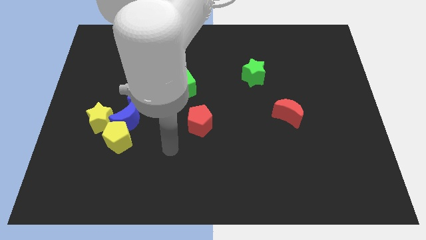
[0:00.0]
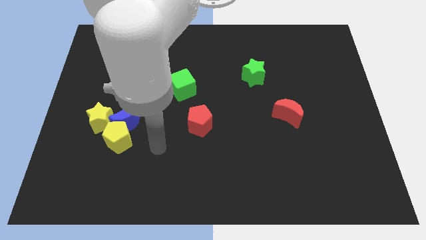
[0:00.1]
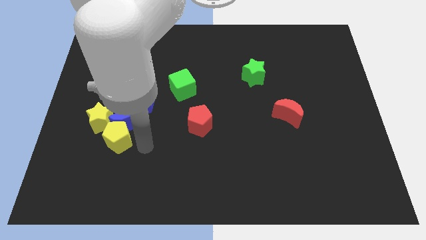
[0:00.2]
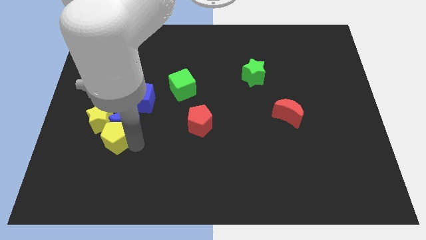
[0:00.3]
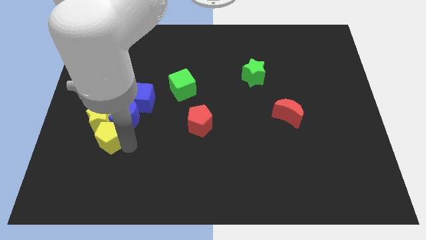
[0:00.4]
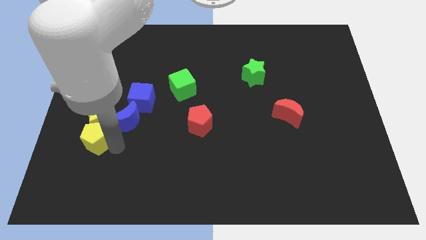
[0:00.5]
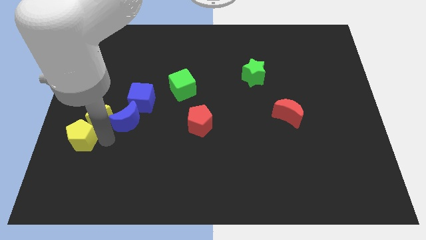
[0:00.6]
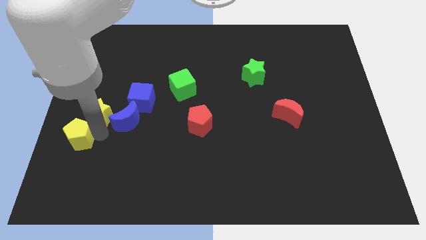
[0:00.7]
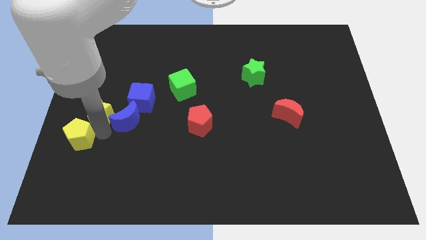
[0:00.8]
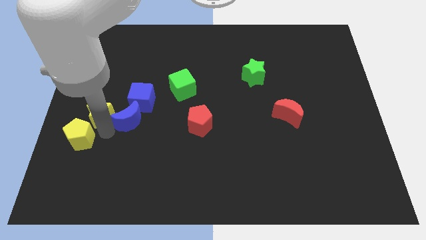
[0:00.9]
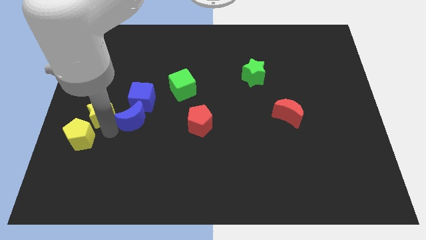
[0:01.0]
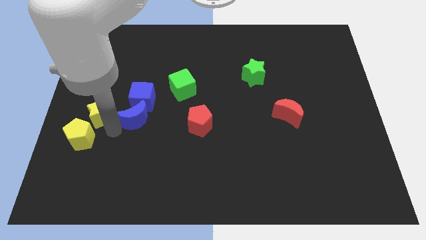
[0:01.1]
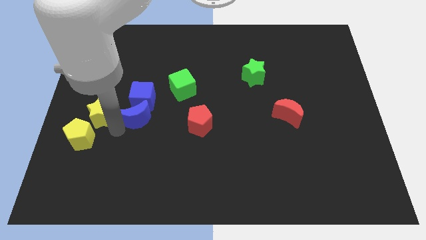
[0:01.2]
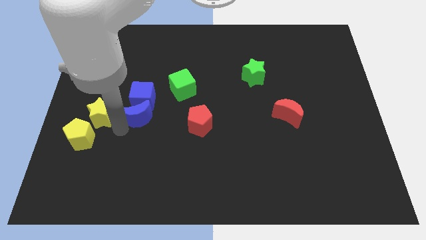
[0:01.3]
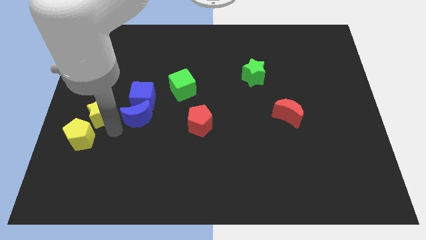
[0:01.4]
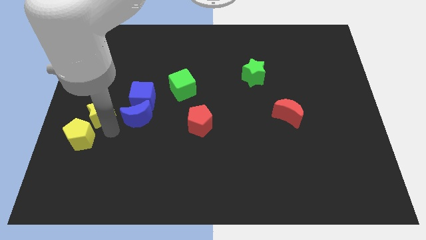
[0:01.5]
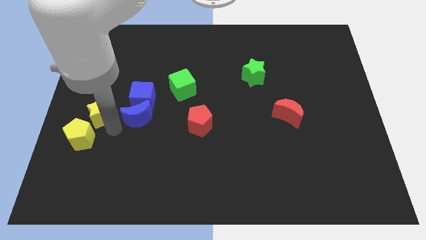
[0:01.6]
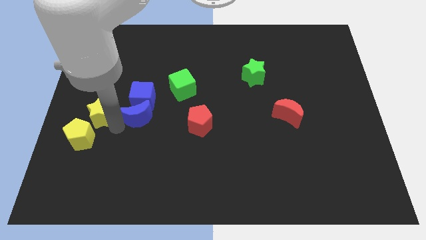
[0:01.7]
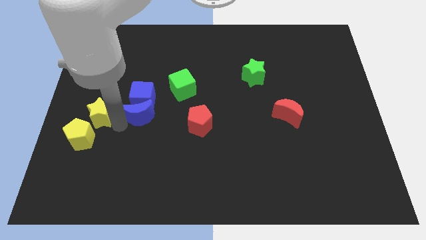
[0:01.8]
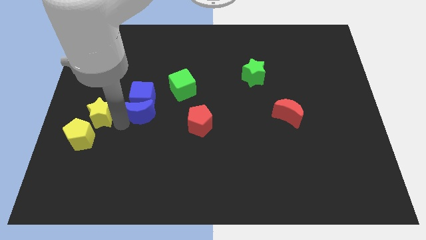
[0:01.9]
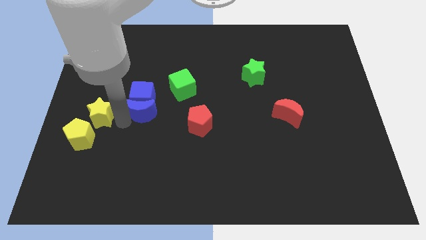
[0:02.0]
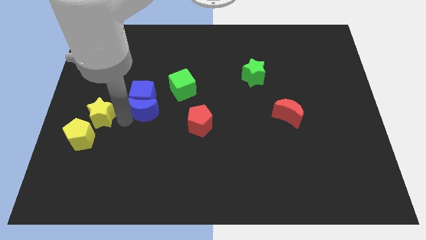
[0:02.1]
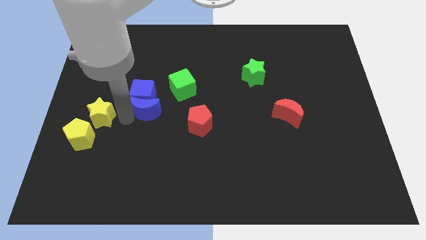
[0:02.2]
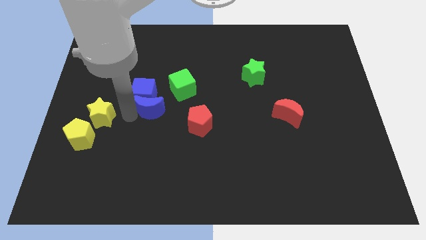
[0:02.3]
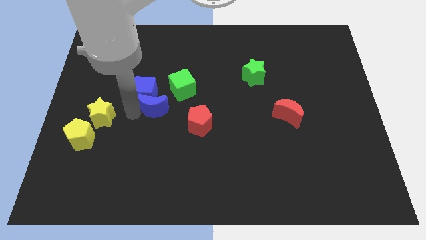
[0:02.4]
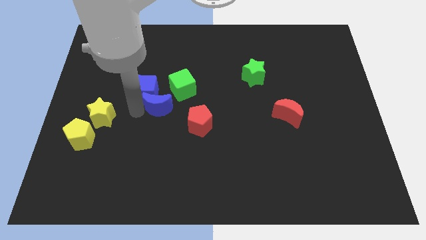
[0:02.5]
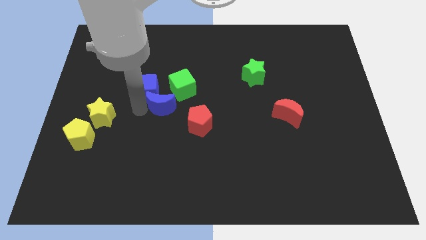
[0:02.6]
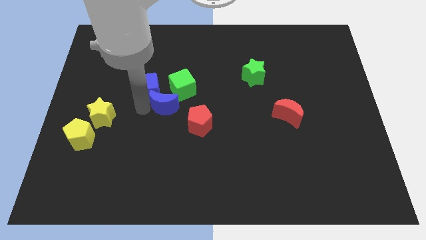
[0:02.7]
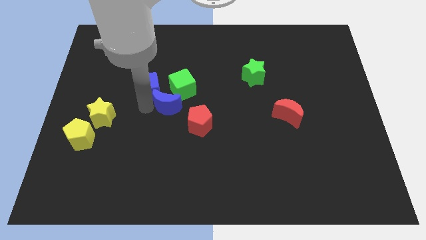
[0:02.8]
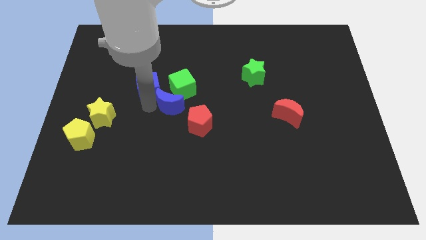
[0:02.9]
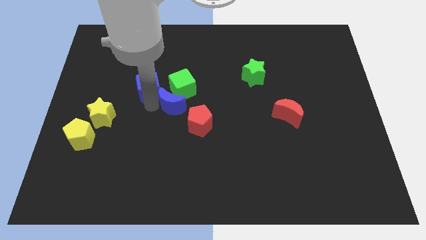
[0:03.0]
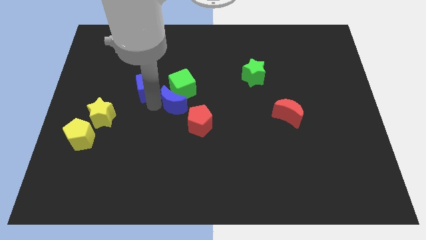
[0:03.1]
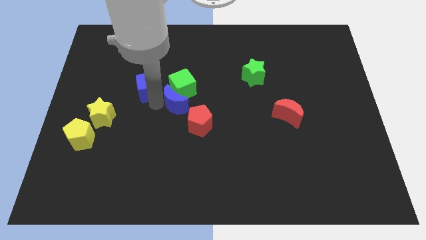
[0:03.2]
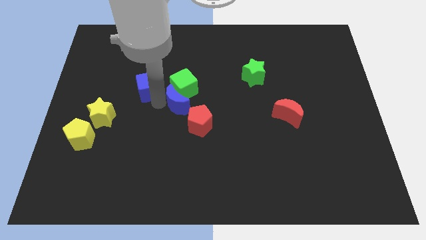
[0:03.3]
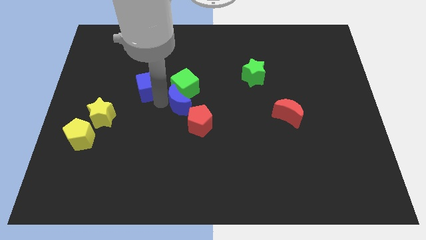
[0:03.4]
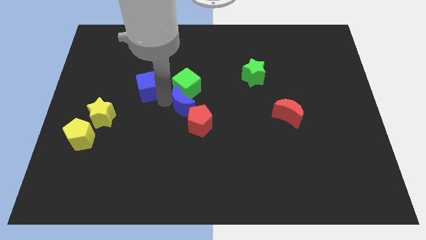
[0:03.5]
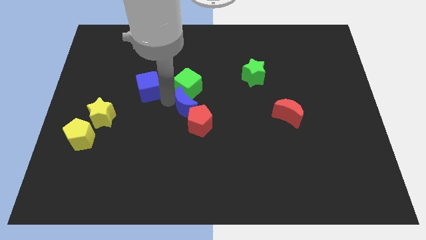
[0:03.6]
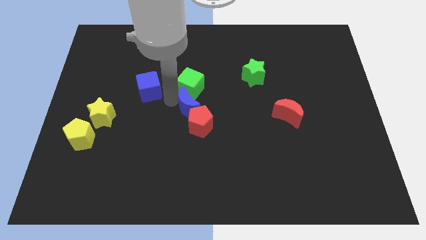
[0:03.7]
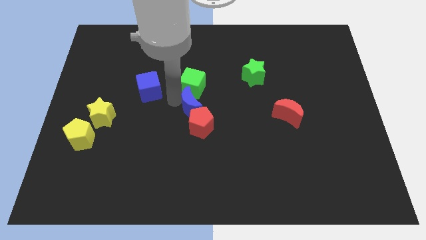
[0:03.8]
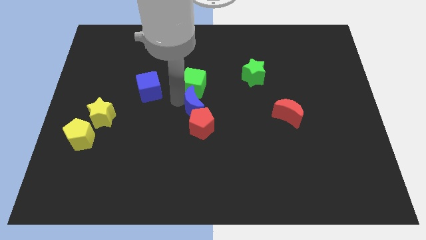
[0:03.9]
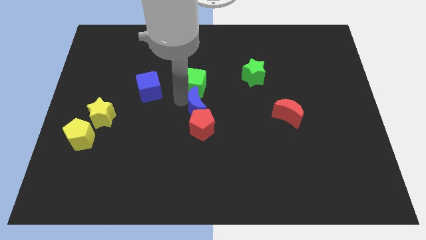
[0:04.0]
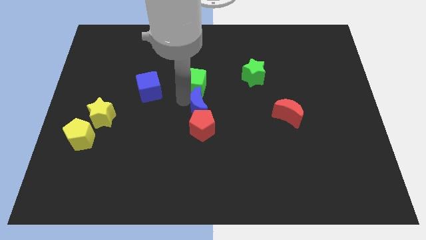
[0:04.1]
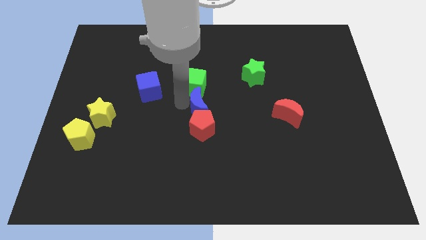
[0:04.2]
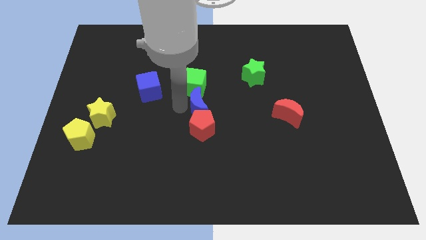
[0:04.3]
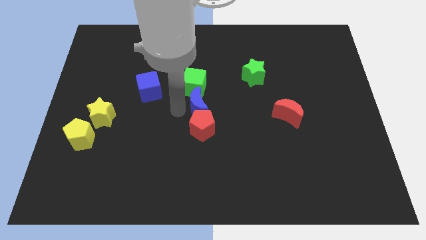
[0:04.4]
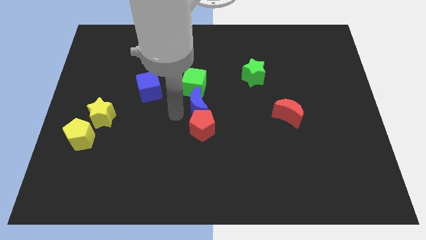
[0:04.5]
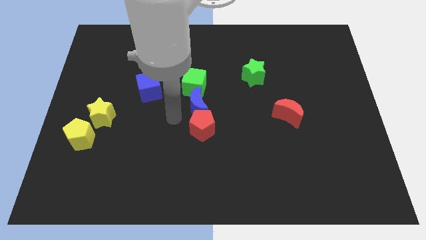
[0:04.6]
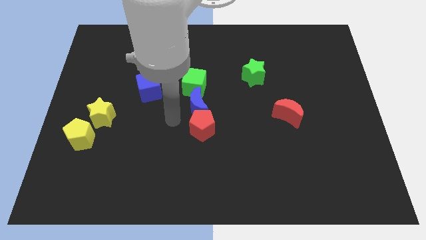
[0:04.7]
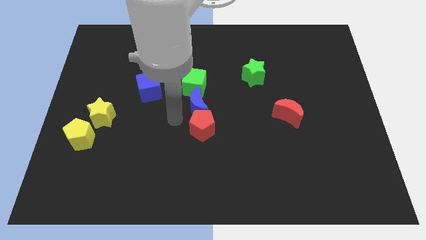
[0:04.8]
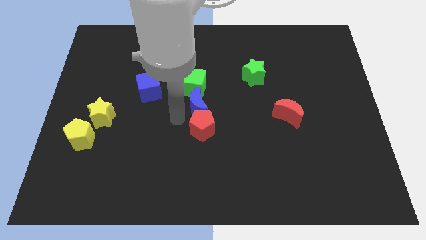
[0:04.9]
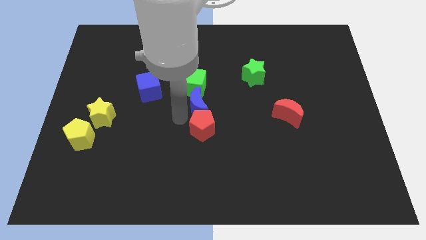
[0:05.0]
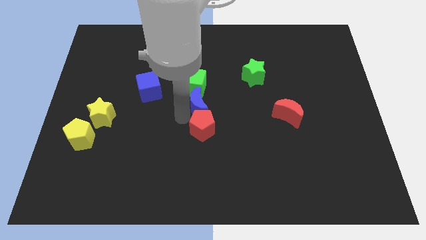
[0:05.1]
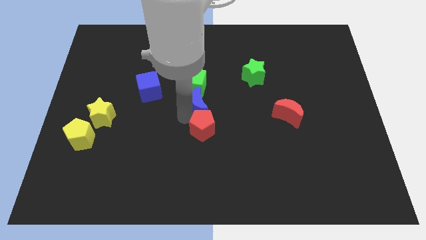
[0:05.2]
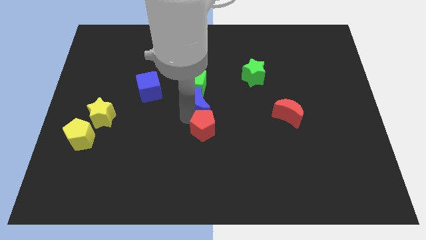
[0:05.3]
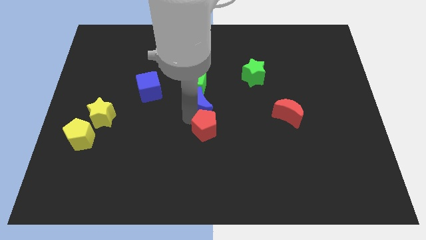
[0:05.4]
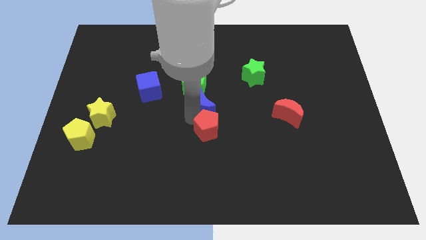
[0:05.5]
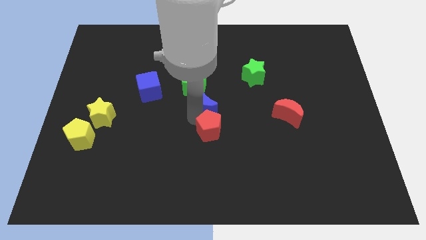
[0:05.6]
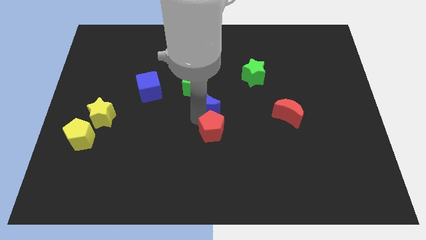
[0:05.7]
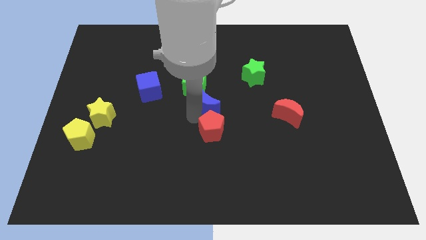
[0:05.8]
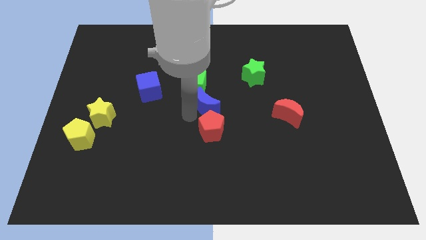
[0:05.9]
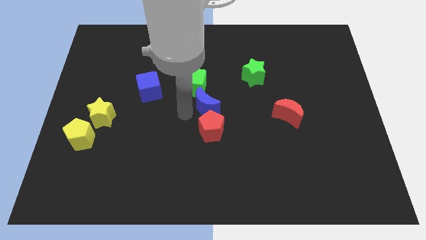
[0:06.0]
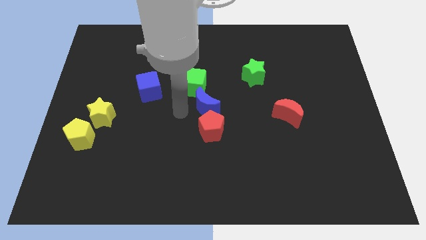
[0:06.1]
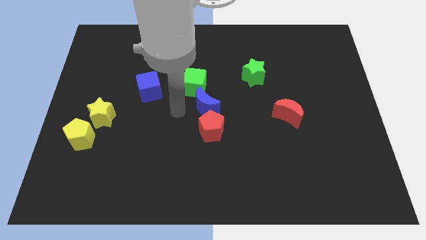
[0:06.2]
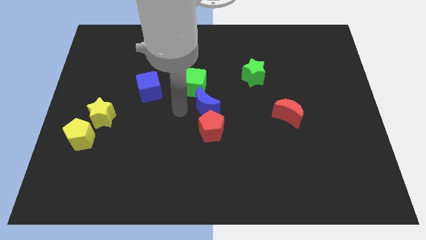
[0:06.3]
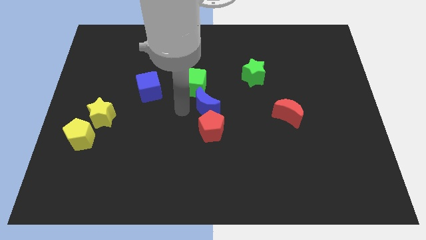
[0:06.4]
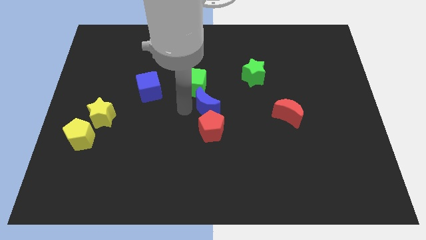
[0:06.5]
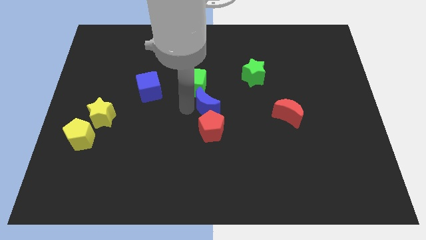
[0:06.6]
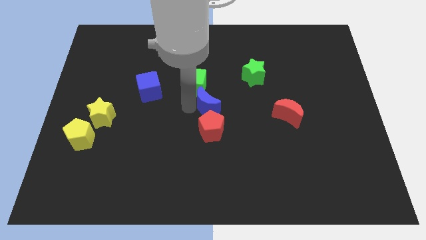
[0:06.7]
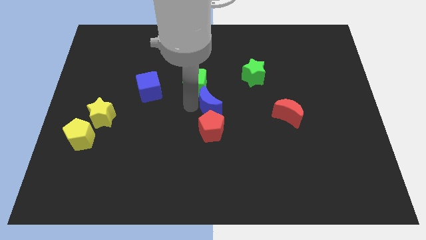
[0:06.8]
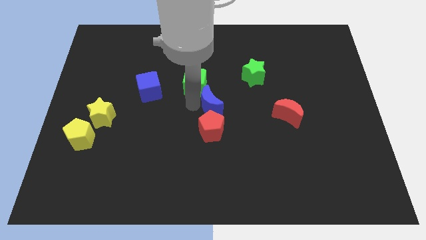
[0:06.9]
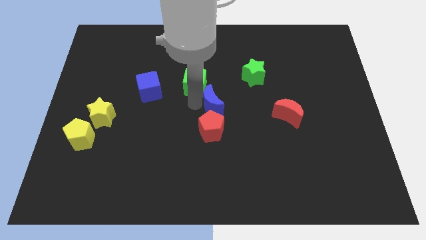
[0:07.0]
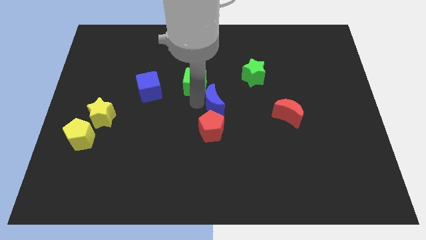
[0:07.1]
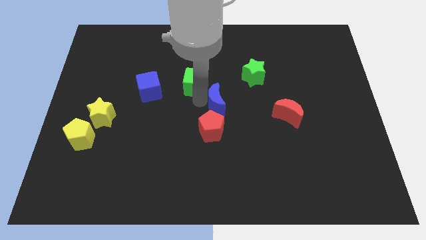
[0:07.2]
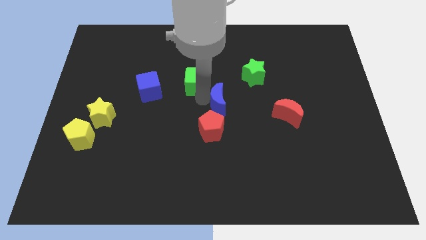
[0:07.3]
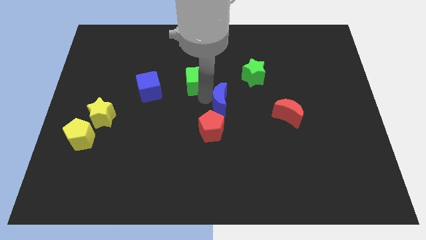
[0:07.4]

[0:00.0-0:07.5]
push the blue moon to the right

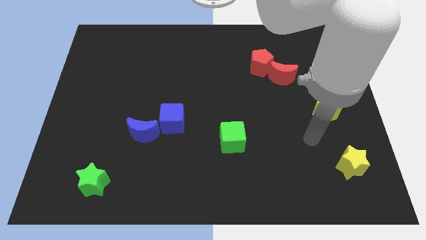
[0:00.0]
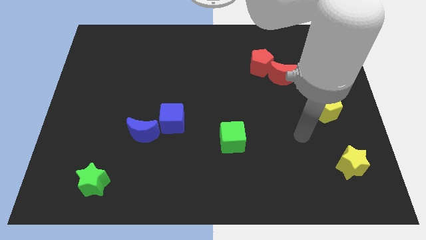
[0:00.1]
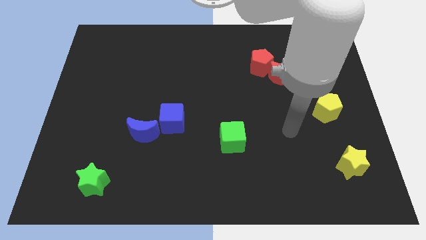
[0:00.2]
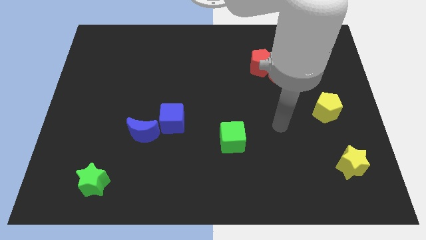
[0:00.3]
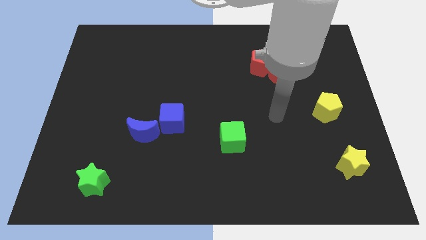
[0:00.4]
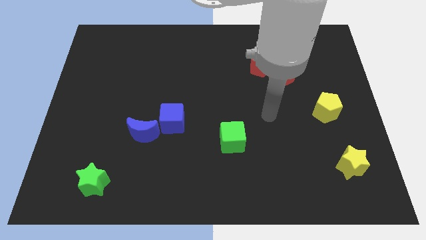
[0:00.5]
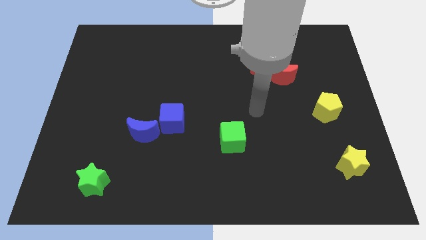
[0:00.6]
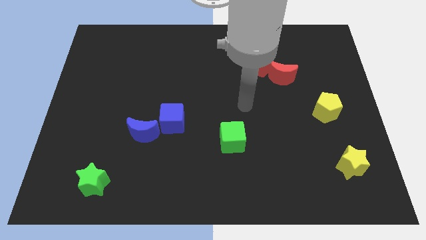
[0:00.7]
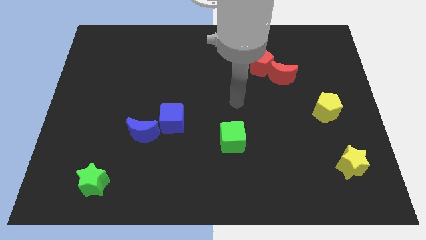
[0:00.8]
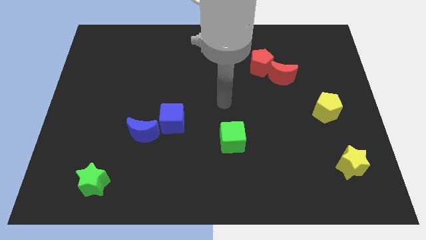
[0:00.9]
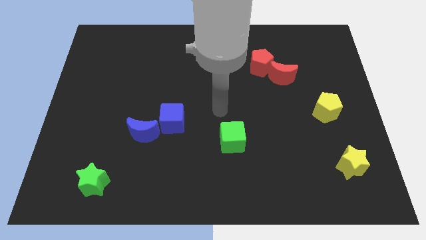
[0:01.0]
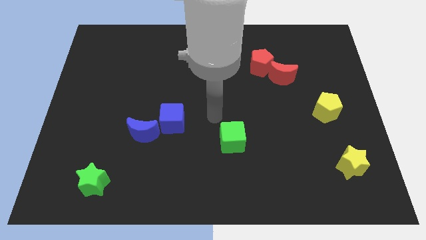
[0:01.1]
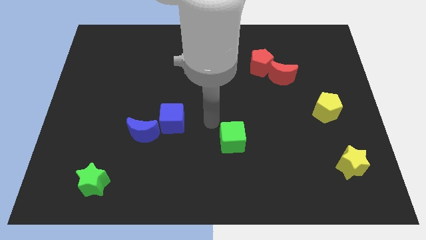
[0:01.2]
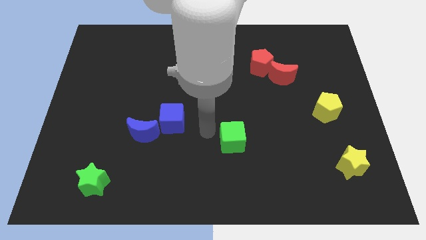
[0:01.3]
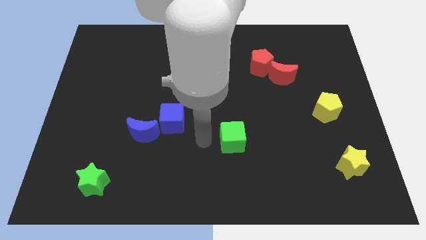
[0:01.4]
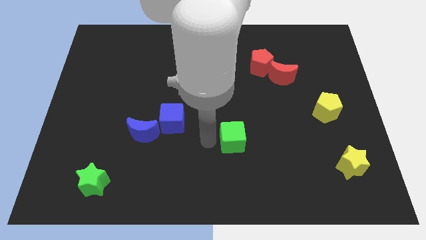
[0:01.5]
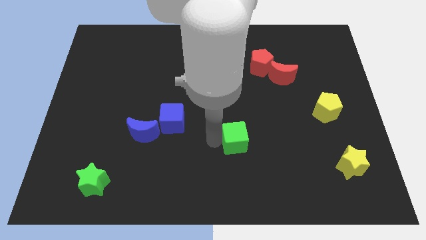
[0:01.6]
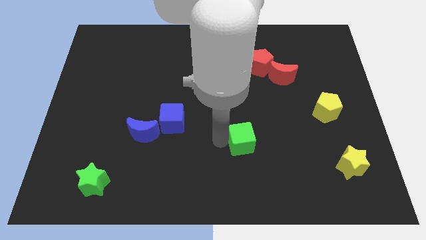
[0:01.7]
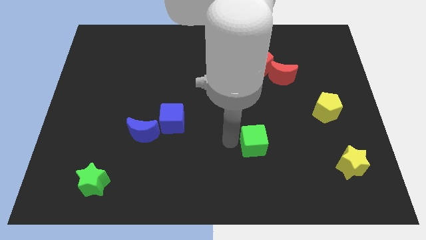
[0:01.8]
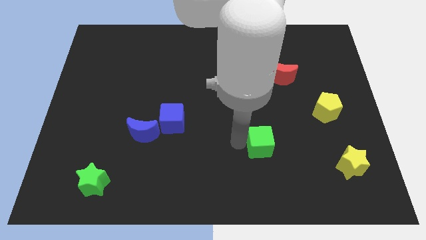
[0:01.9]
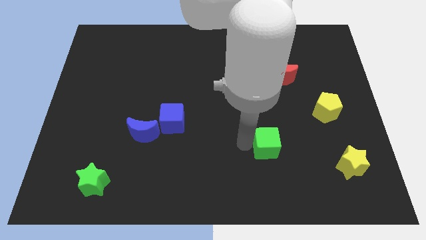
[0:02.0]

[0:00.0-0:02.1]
slide the green cube a little right
